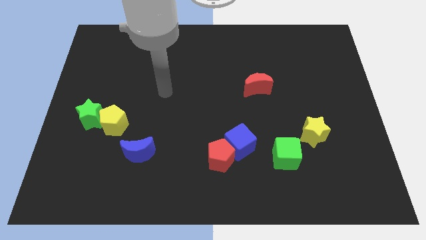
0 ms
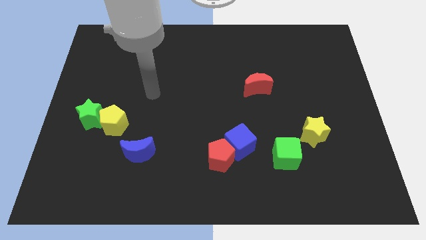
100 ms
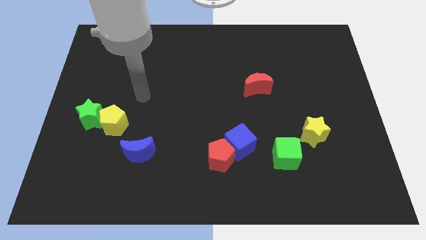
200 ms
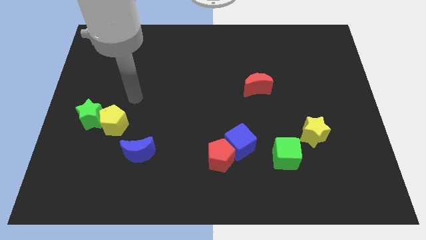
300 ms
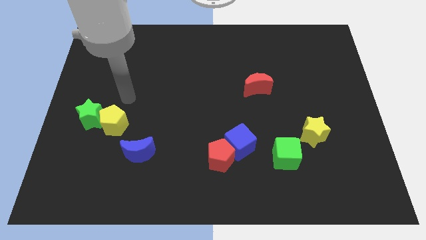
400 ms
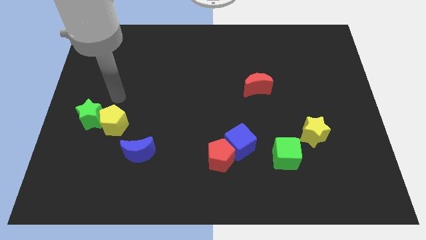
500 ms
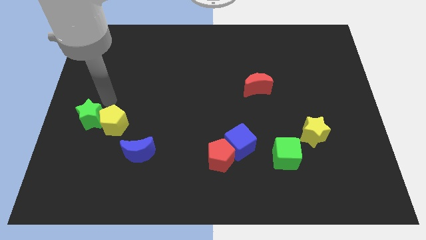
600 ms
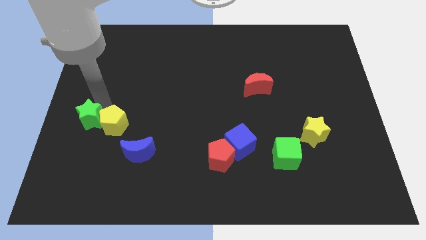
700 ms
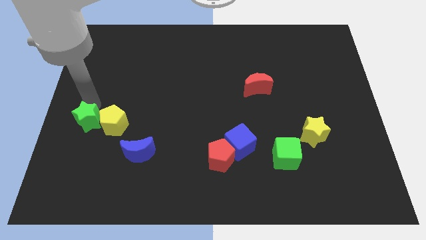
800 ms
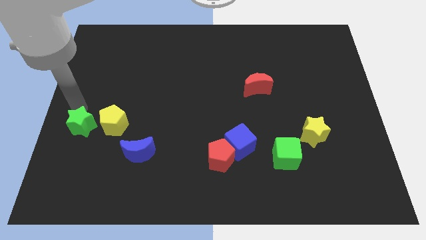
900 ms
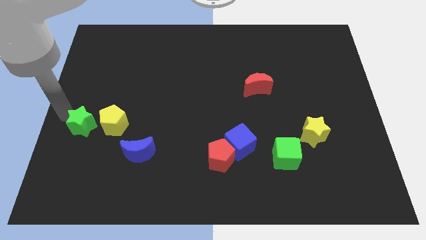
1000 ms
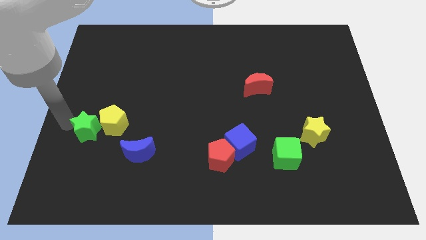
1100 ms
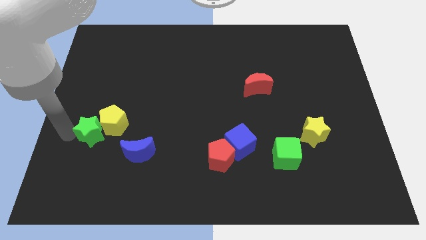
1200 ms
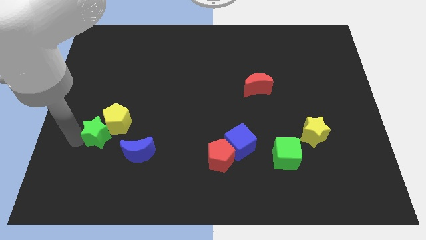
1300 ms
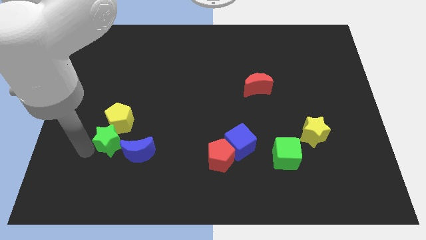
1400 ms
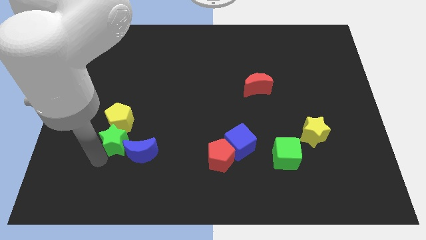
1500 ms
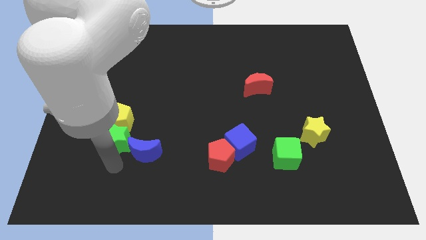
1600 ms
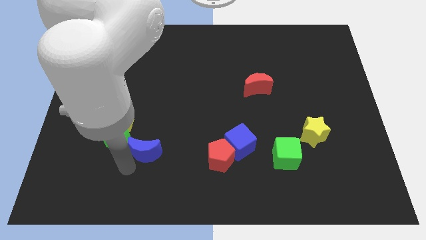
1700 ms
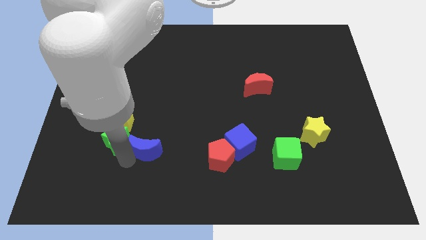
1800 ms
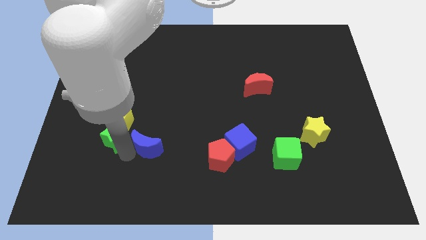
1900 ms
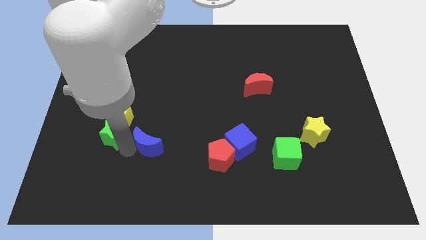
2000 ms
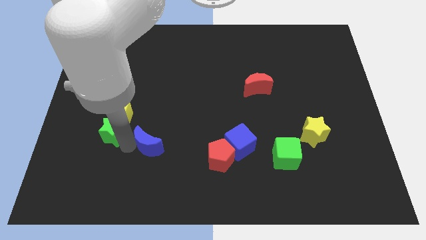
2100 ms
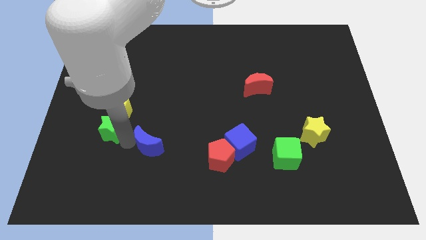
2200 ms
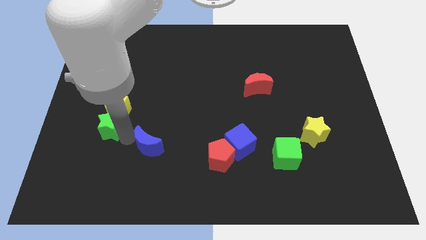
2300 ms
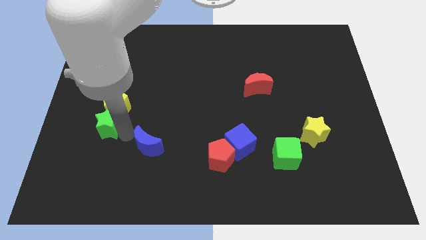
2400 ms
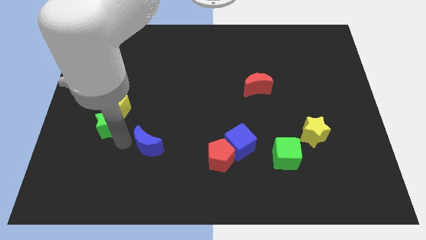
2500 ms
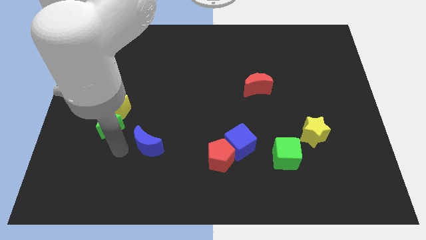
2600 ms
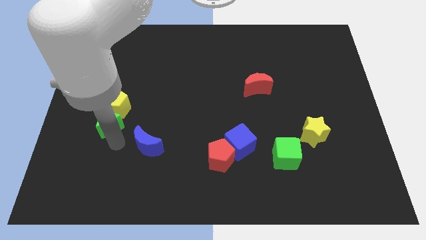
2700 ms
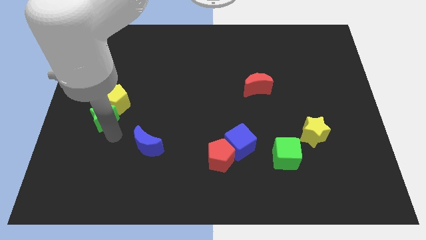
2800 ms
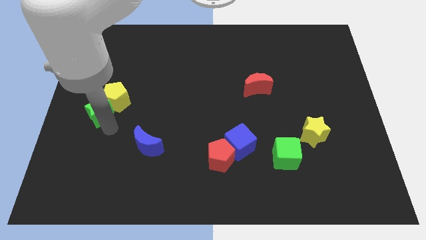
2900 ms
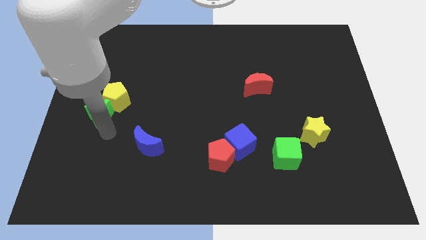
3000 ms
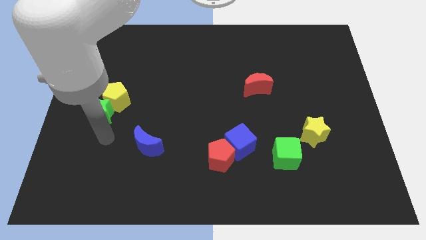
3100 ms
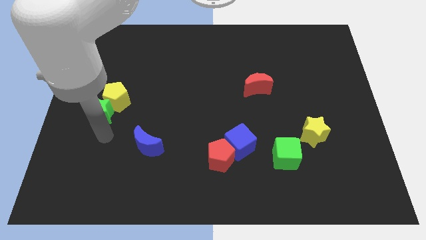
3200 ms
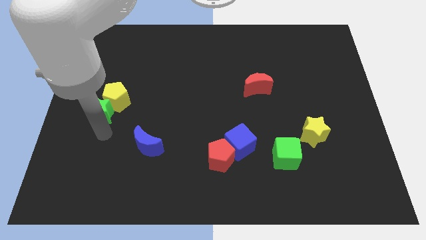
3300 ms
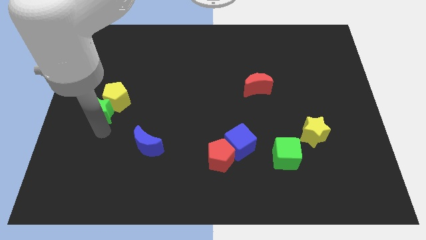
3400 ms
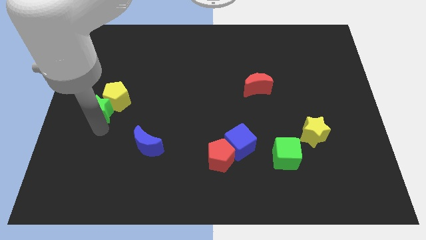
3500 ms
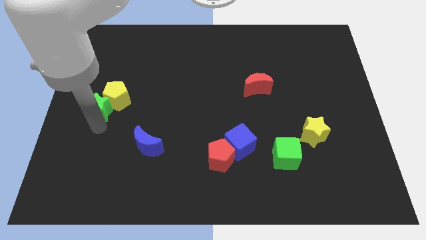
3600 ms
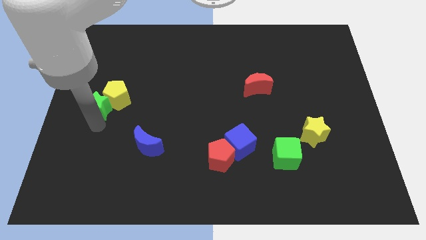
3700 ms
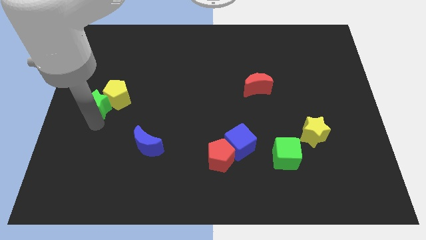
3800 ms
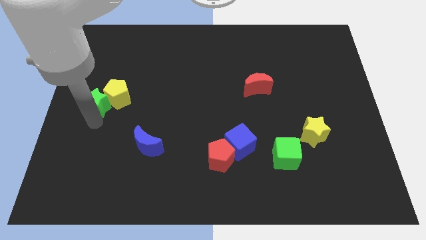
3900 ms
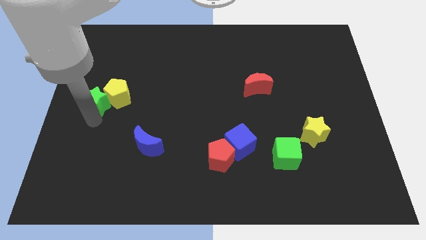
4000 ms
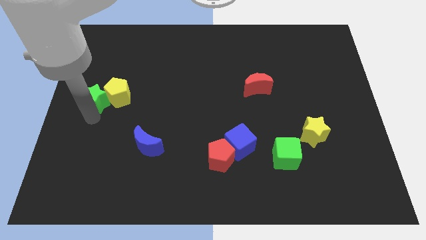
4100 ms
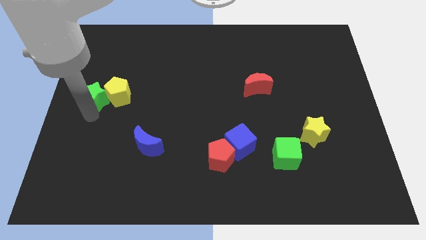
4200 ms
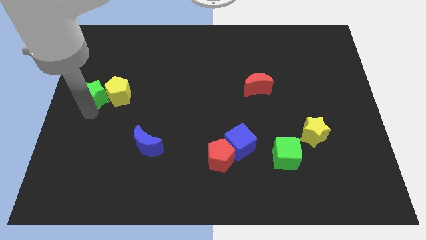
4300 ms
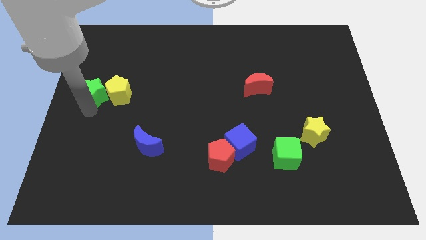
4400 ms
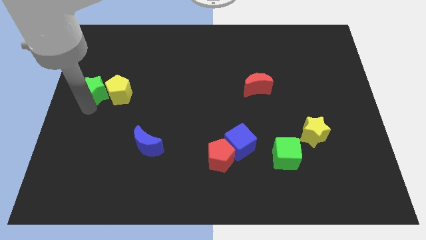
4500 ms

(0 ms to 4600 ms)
slightly move the green star up

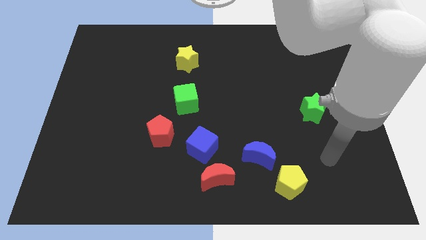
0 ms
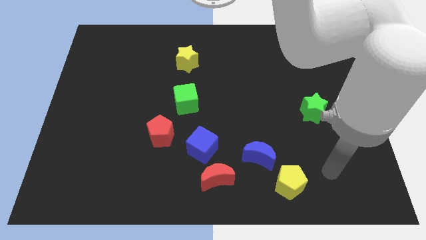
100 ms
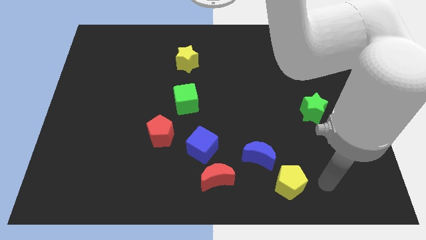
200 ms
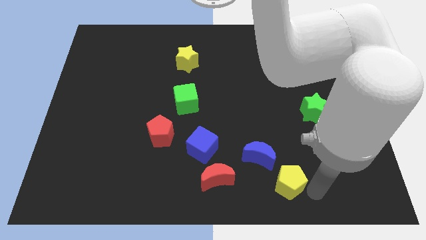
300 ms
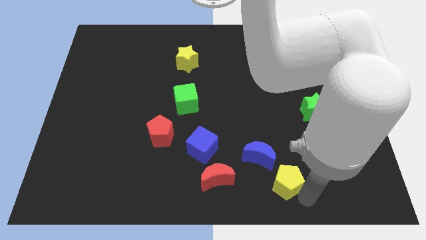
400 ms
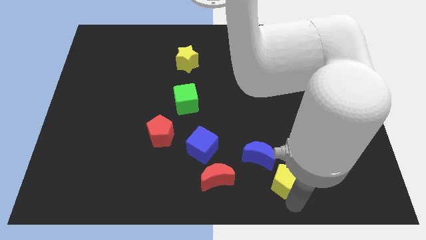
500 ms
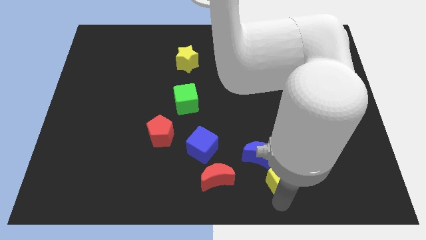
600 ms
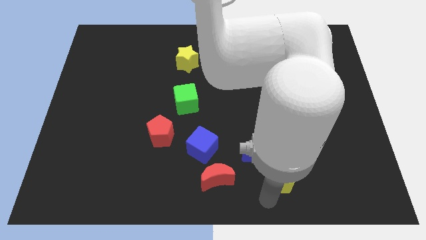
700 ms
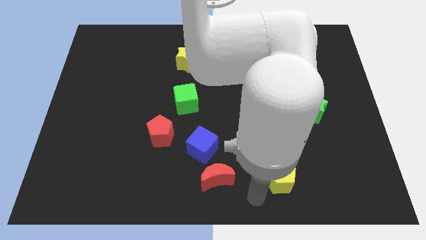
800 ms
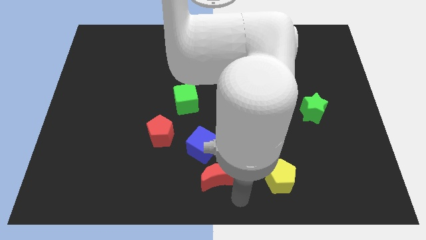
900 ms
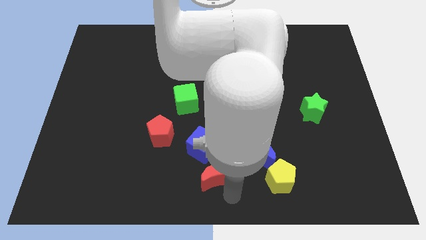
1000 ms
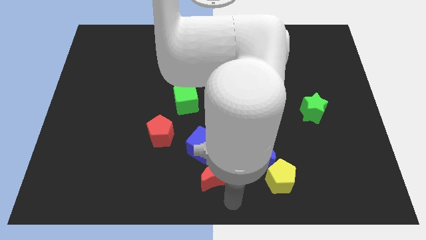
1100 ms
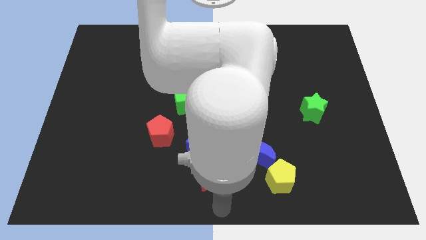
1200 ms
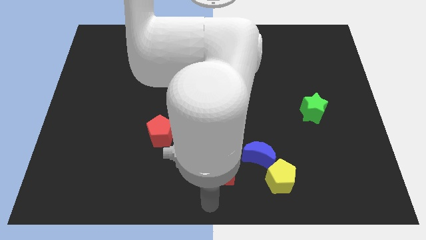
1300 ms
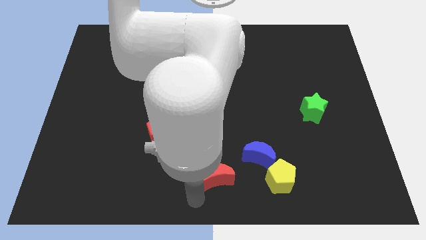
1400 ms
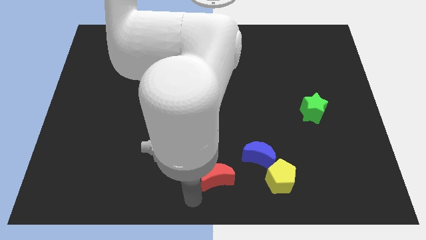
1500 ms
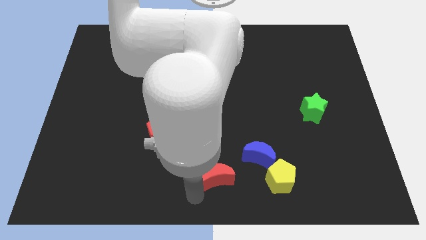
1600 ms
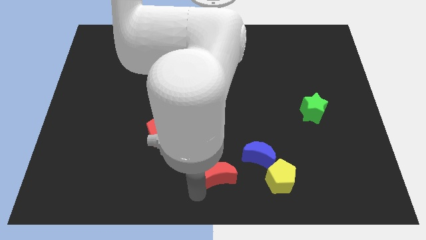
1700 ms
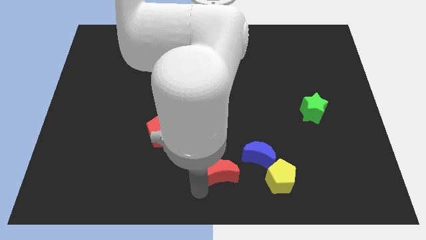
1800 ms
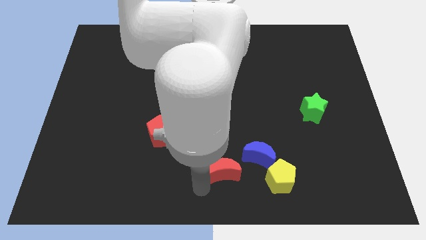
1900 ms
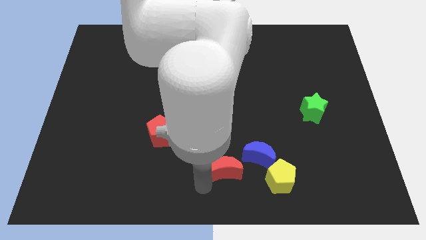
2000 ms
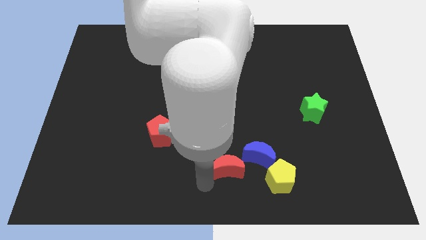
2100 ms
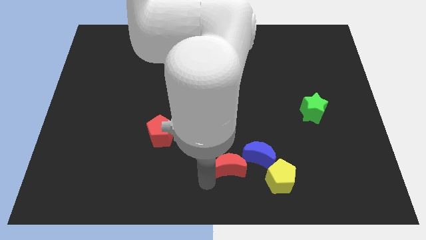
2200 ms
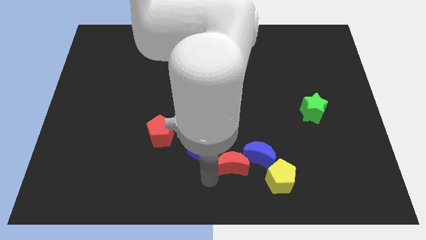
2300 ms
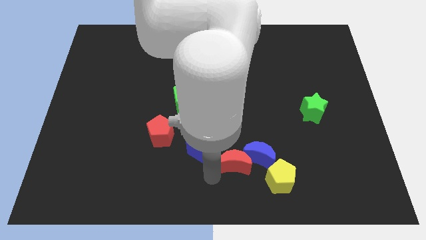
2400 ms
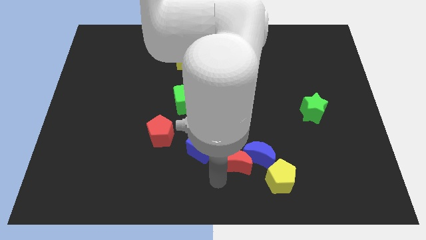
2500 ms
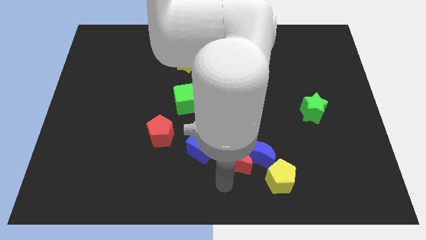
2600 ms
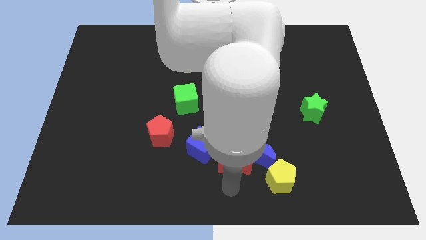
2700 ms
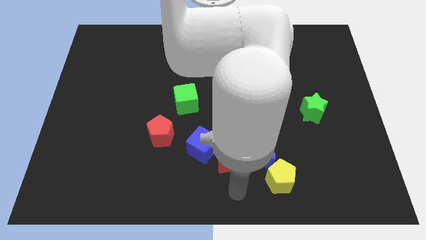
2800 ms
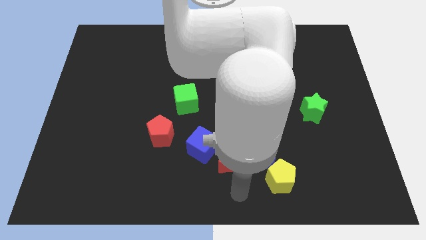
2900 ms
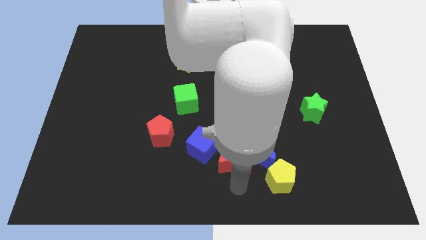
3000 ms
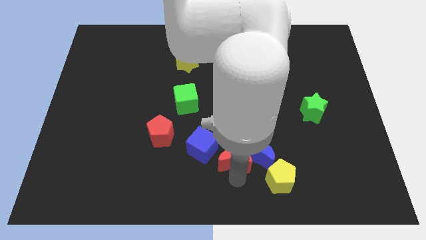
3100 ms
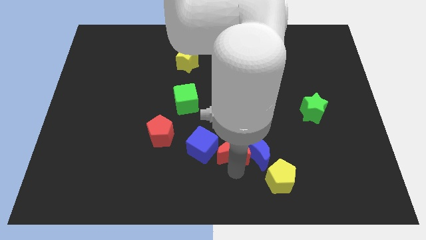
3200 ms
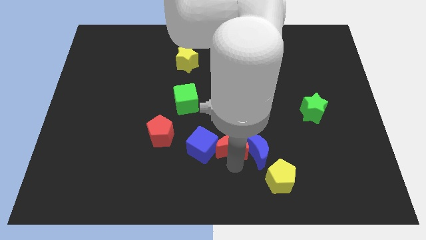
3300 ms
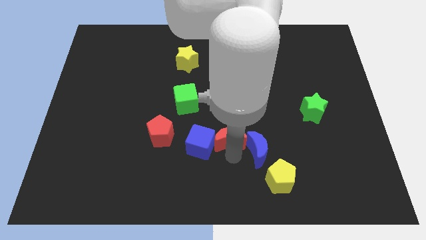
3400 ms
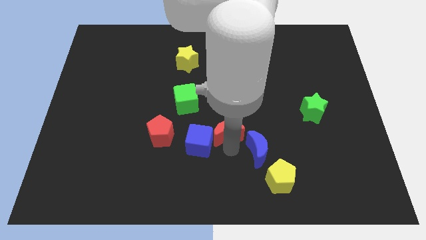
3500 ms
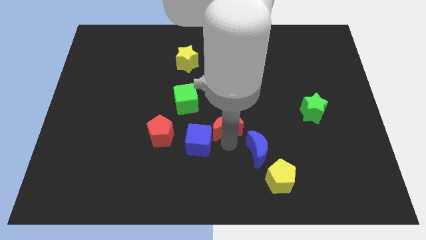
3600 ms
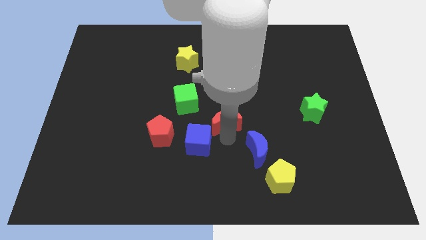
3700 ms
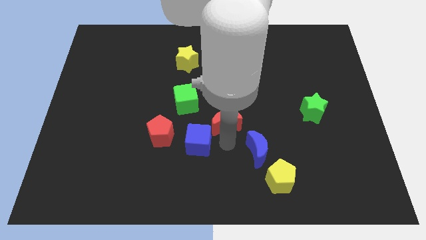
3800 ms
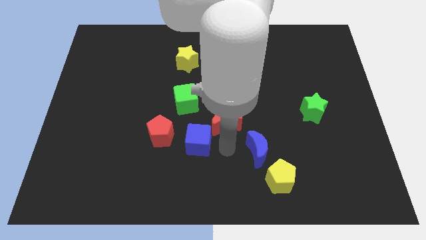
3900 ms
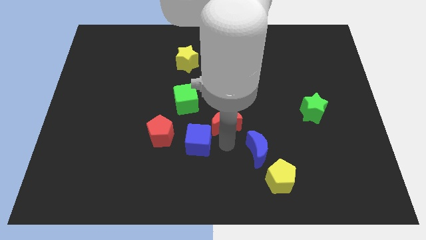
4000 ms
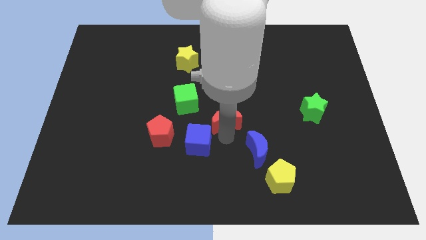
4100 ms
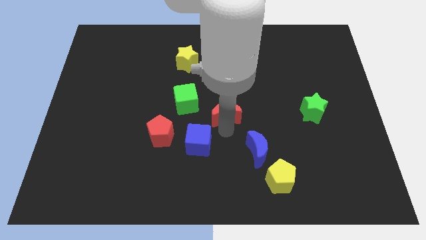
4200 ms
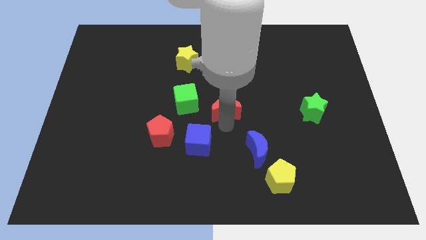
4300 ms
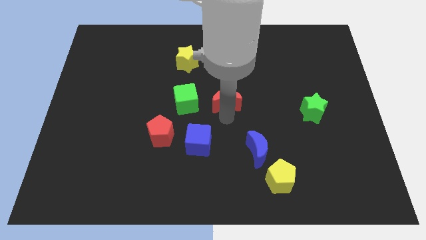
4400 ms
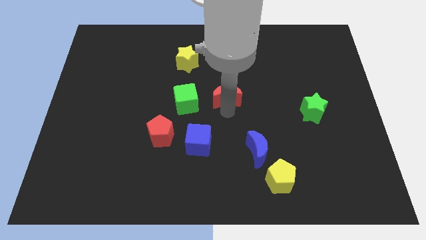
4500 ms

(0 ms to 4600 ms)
move the red moon up
